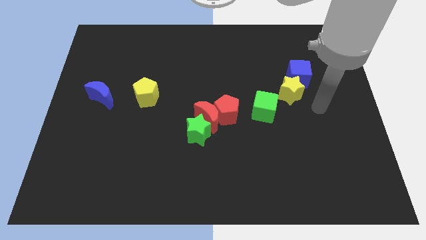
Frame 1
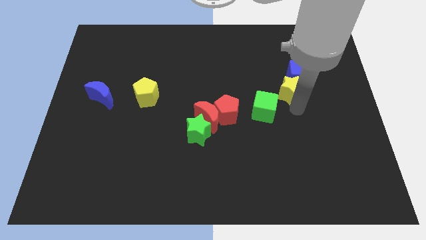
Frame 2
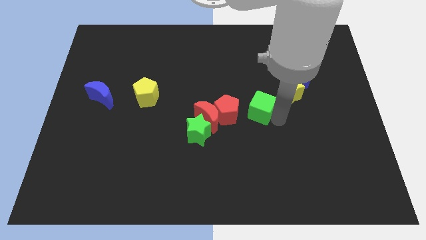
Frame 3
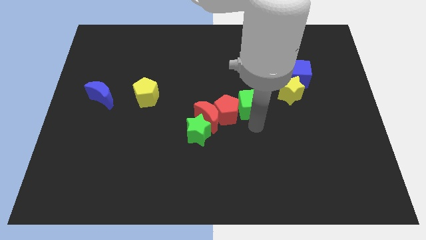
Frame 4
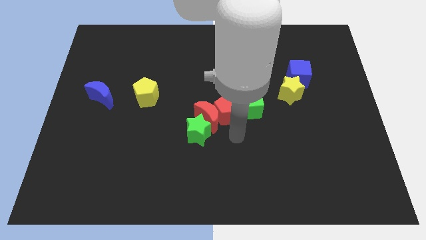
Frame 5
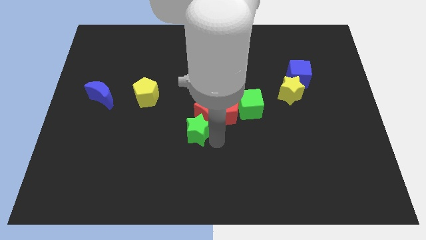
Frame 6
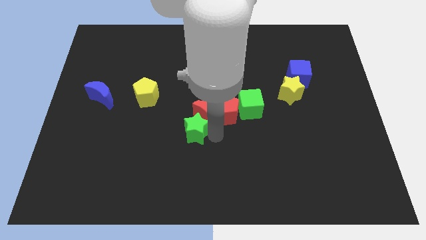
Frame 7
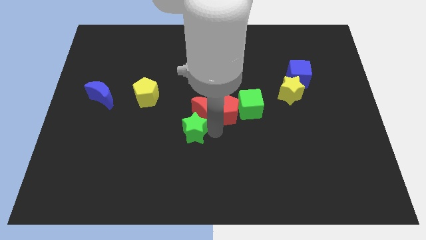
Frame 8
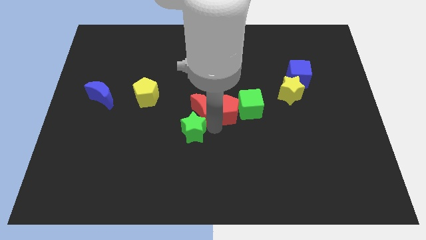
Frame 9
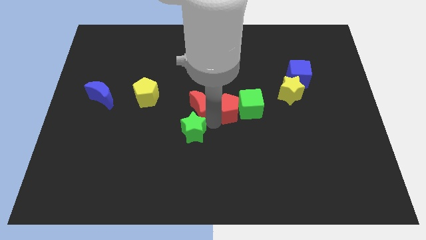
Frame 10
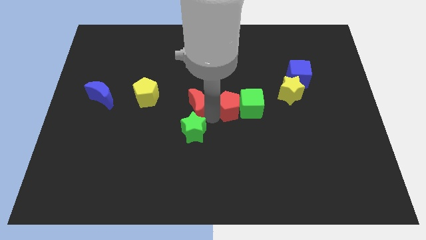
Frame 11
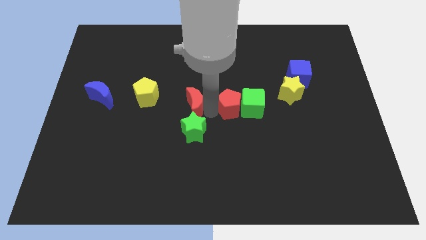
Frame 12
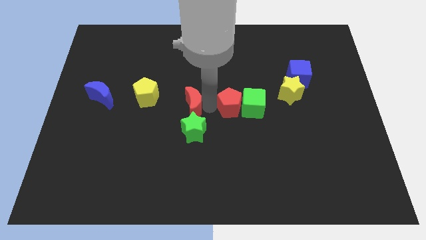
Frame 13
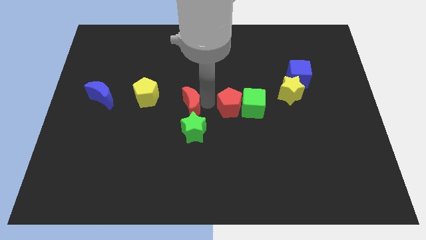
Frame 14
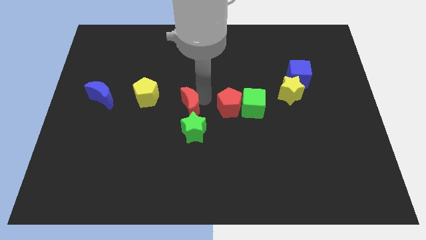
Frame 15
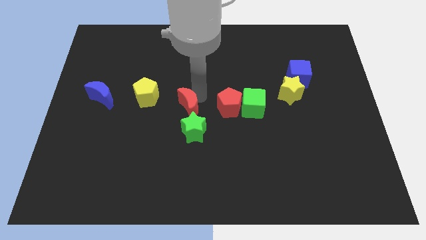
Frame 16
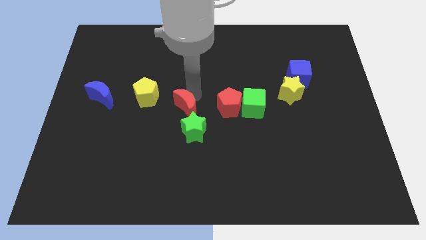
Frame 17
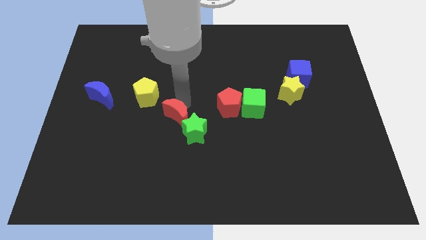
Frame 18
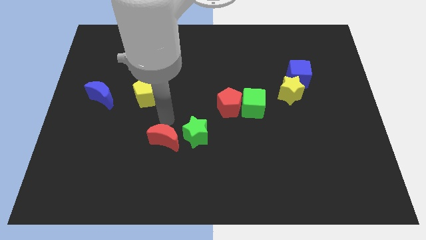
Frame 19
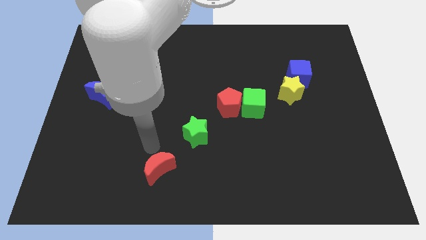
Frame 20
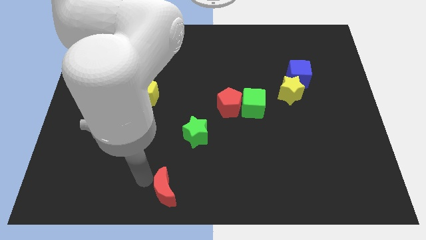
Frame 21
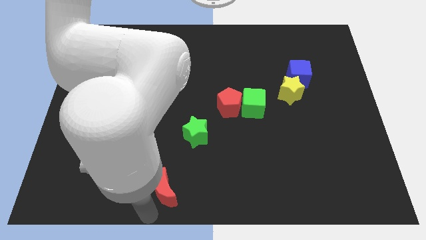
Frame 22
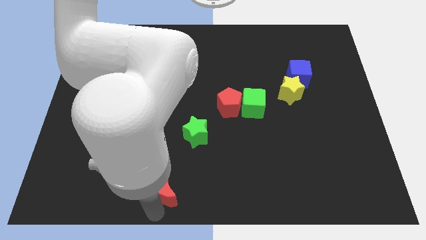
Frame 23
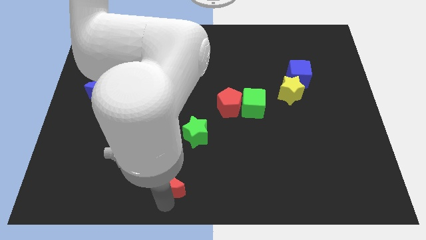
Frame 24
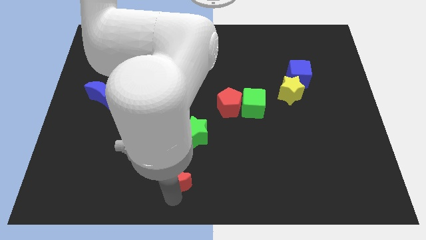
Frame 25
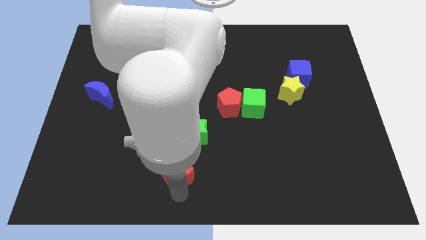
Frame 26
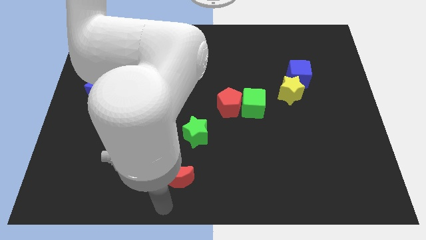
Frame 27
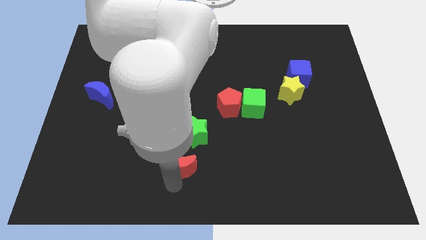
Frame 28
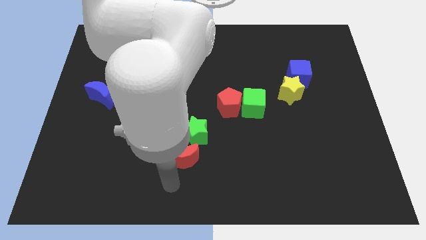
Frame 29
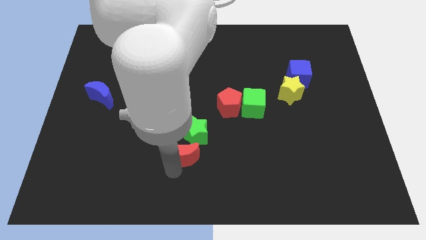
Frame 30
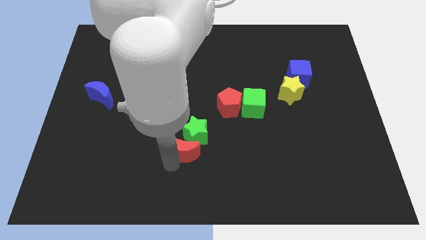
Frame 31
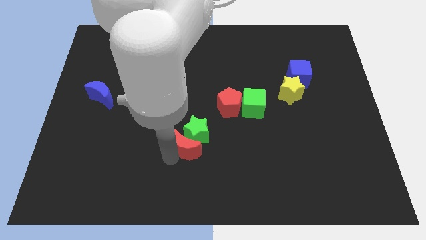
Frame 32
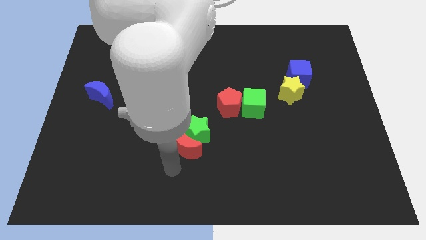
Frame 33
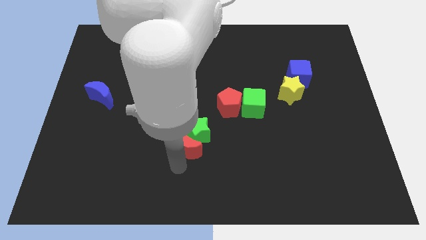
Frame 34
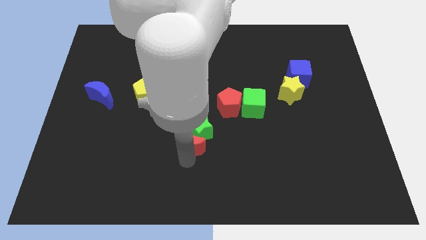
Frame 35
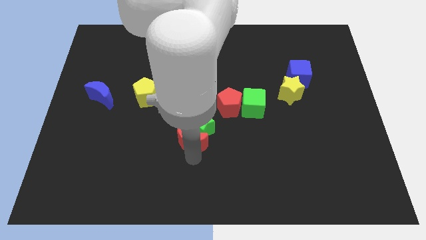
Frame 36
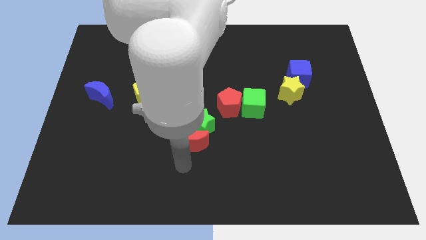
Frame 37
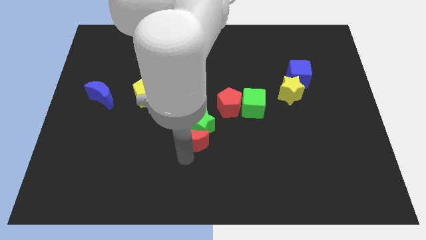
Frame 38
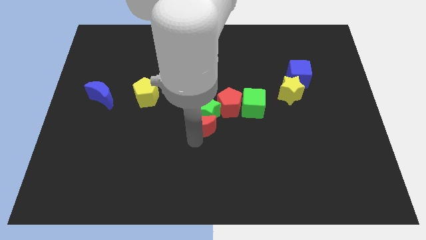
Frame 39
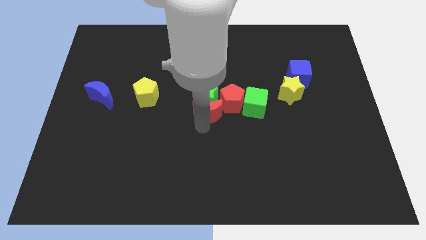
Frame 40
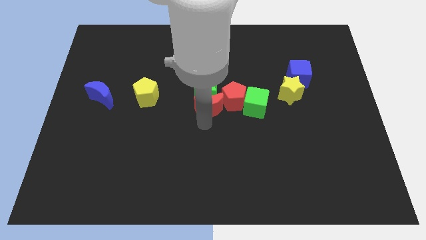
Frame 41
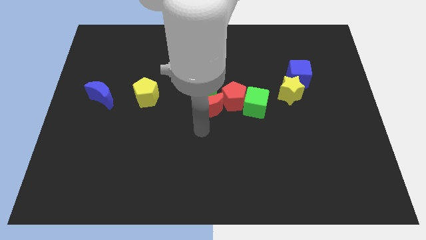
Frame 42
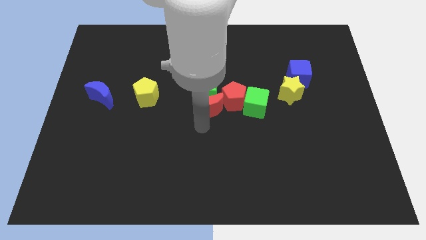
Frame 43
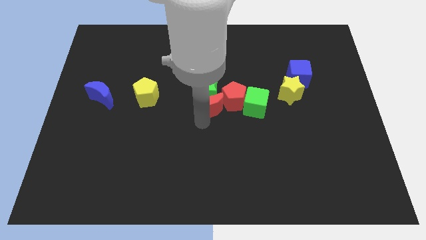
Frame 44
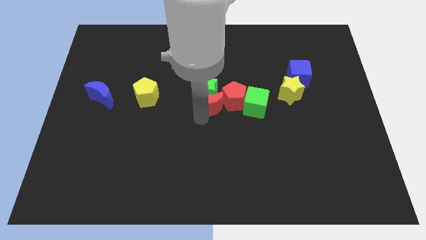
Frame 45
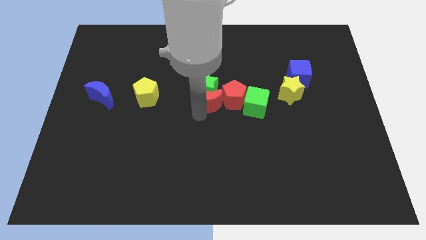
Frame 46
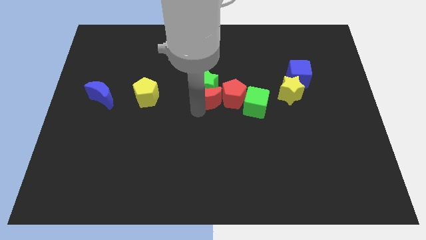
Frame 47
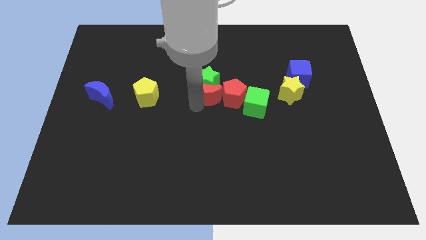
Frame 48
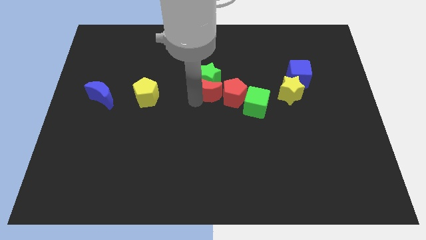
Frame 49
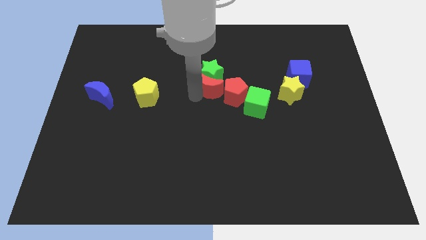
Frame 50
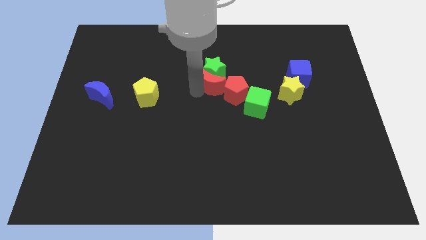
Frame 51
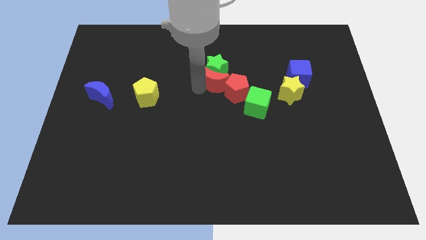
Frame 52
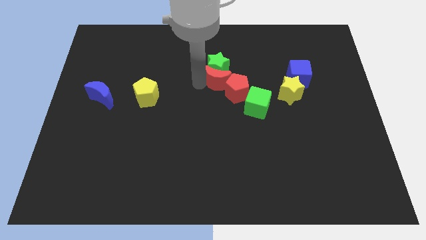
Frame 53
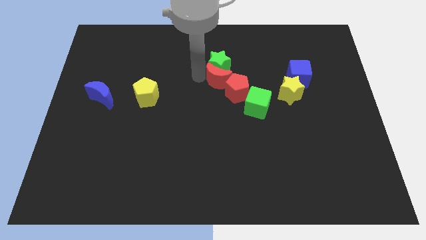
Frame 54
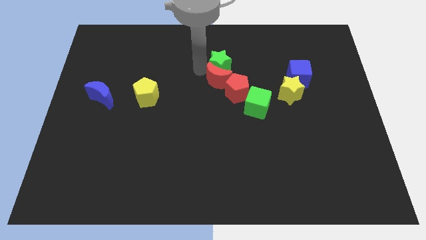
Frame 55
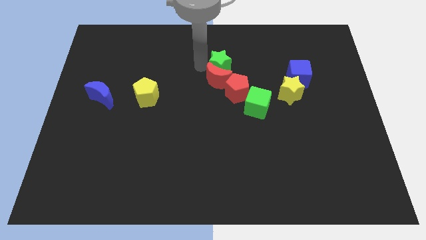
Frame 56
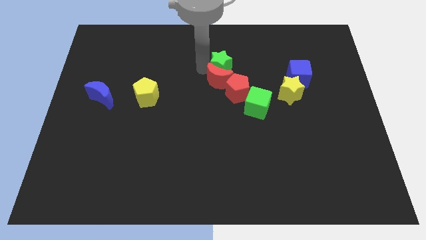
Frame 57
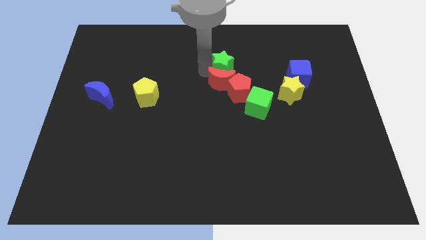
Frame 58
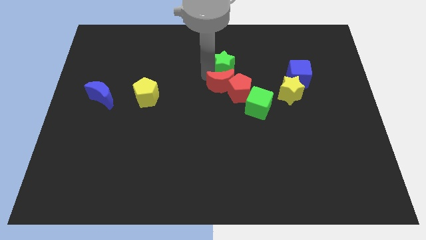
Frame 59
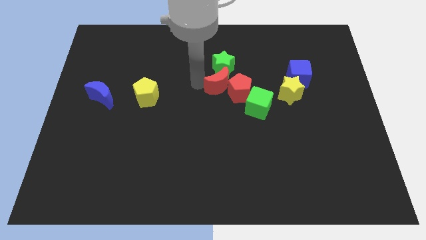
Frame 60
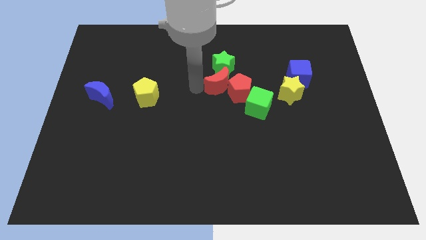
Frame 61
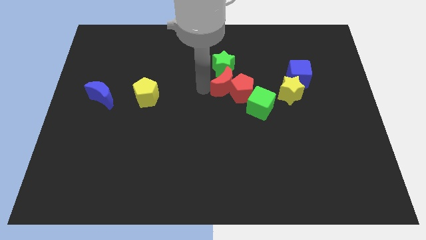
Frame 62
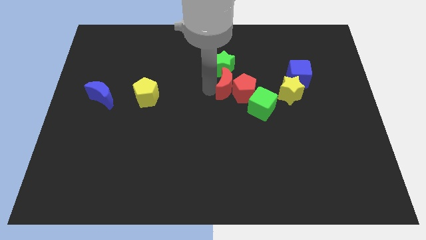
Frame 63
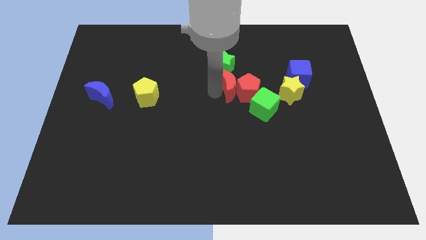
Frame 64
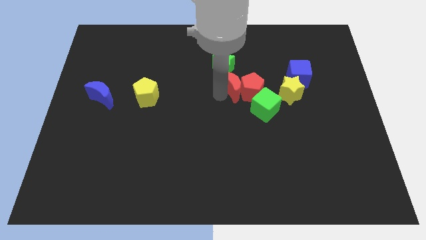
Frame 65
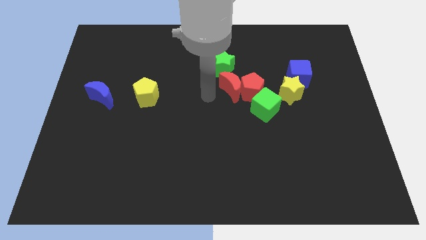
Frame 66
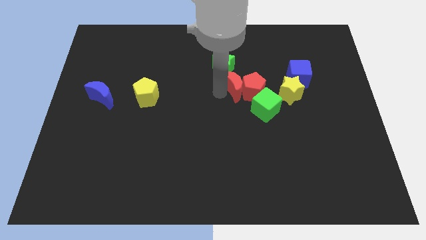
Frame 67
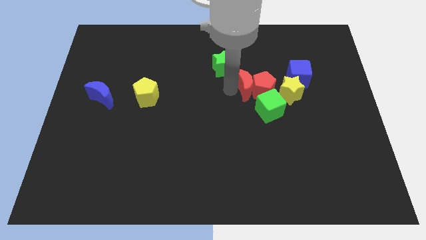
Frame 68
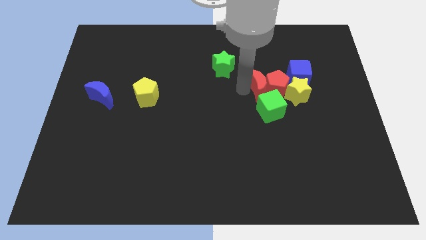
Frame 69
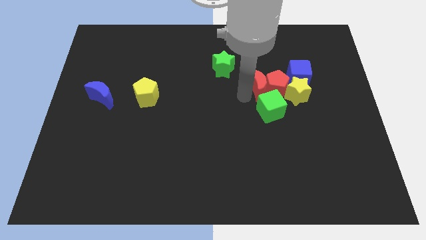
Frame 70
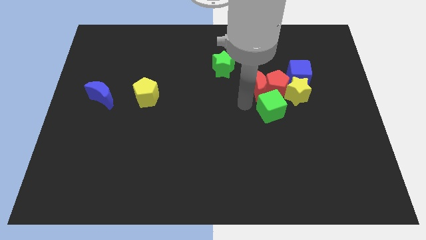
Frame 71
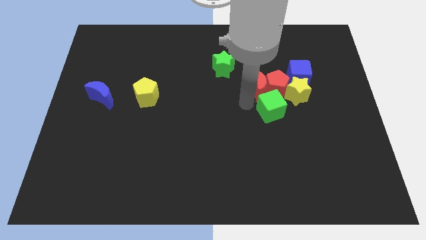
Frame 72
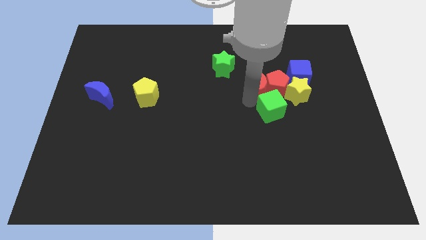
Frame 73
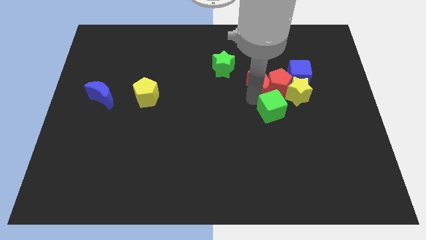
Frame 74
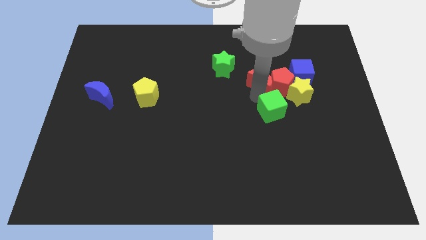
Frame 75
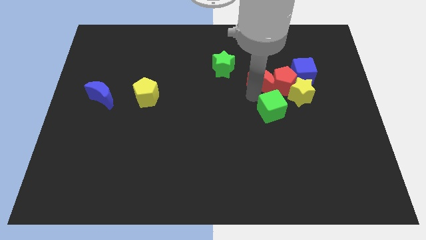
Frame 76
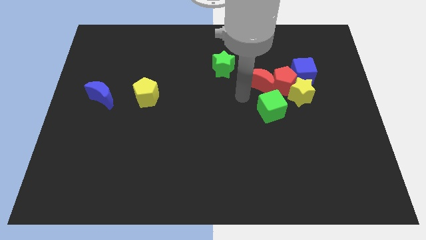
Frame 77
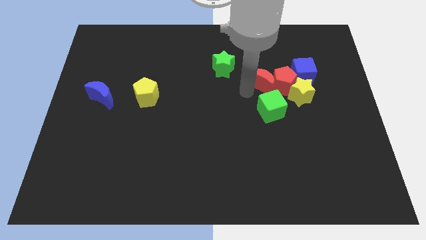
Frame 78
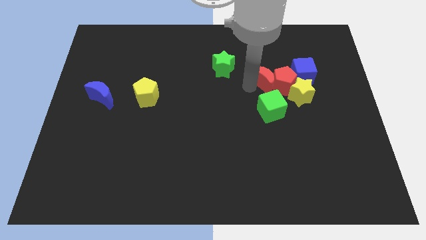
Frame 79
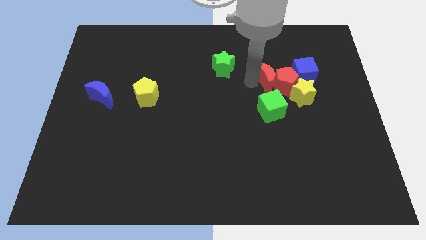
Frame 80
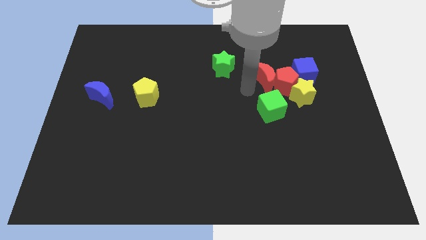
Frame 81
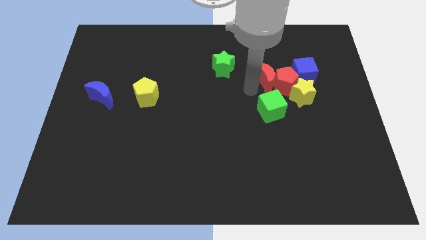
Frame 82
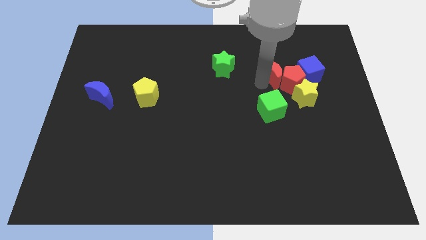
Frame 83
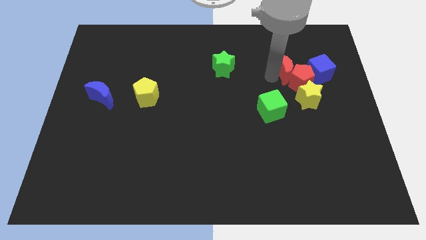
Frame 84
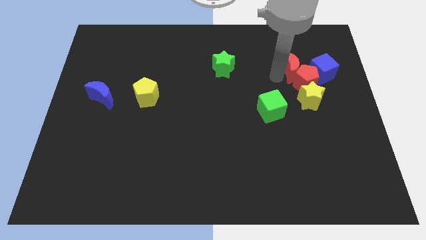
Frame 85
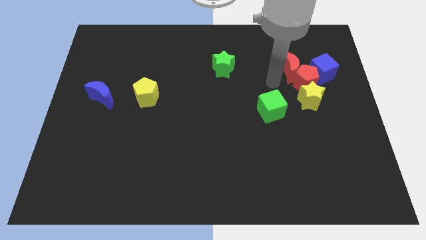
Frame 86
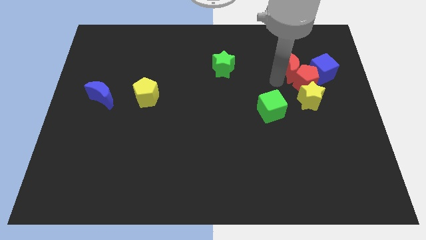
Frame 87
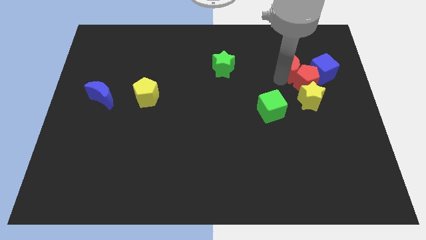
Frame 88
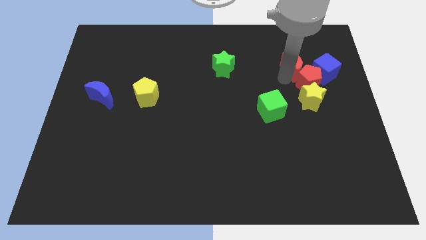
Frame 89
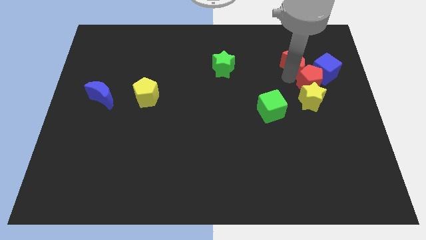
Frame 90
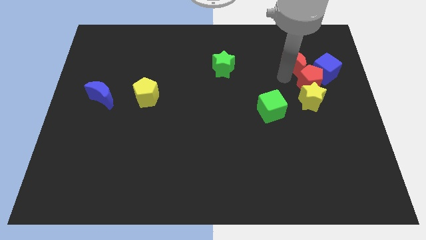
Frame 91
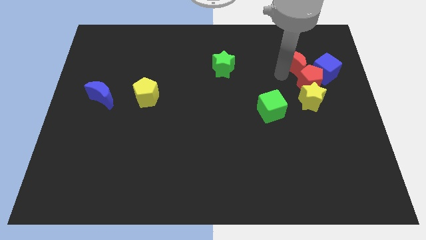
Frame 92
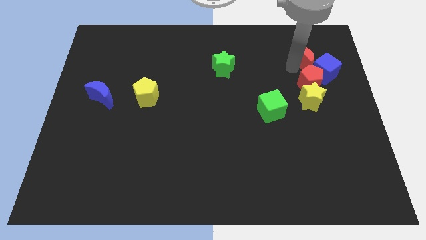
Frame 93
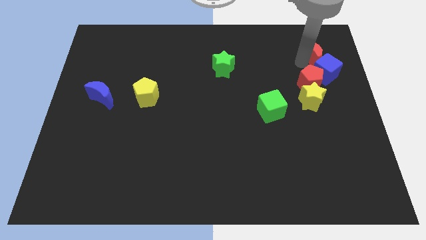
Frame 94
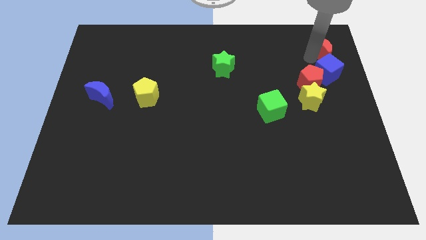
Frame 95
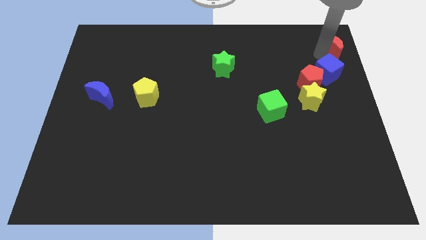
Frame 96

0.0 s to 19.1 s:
put the red moon to the upper right corner
